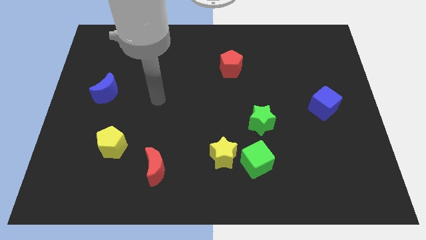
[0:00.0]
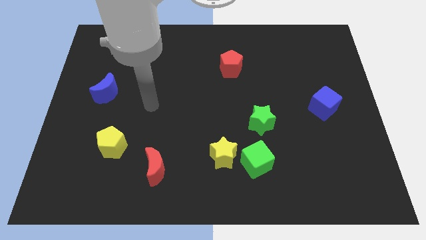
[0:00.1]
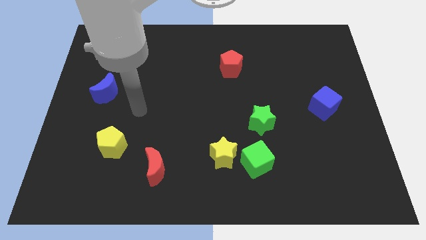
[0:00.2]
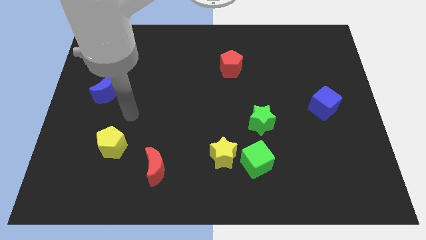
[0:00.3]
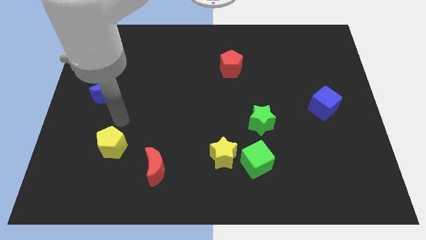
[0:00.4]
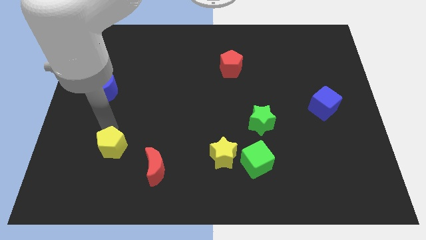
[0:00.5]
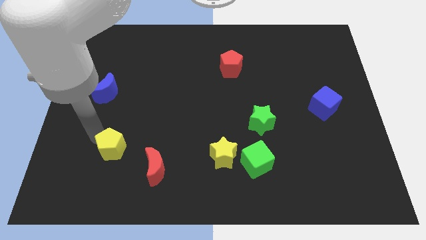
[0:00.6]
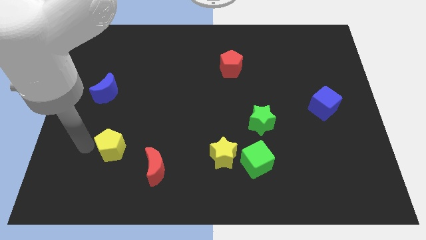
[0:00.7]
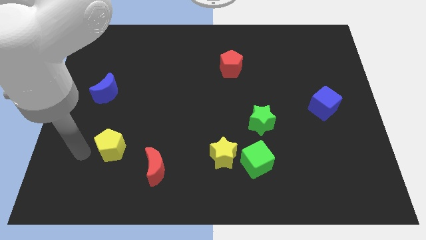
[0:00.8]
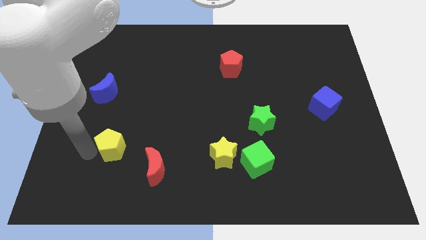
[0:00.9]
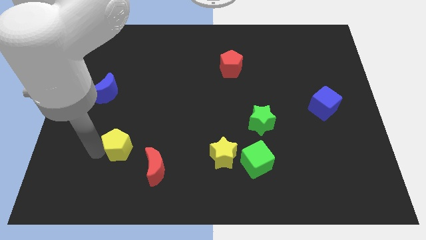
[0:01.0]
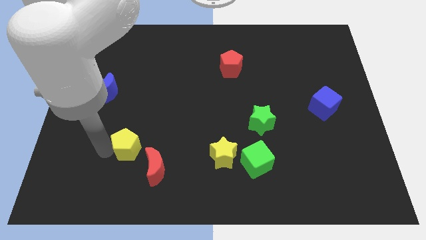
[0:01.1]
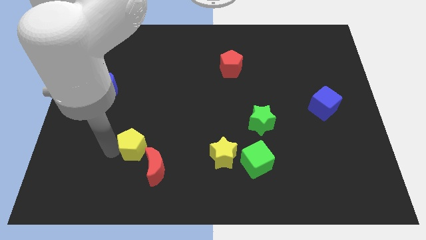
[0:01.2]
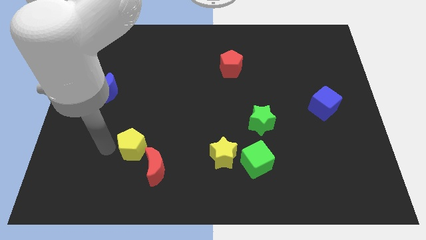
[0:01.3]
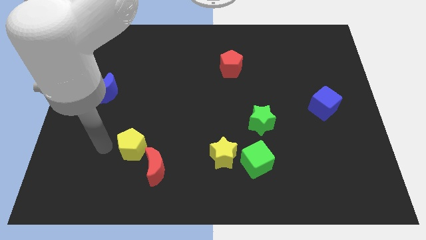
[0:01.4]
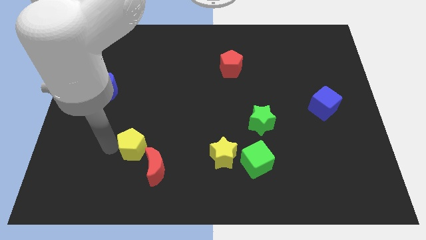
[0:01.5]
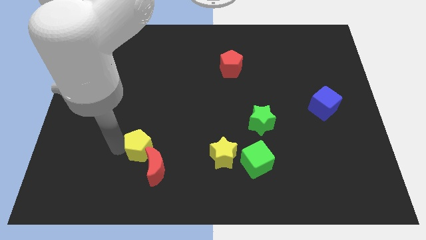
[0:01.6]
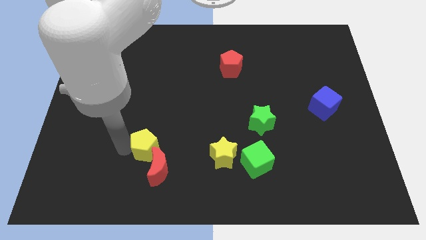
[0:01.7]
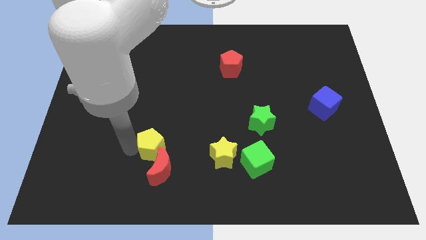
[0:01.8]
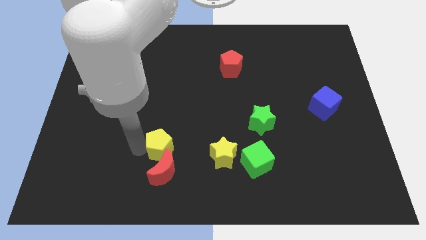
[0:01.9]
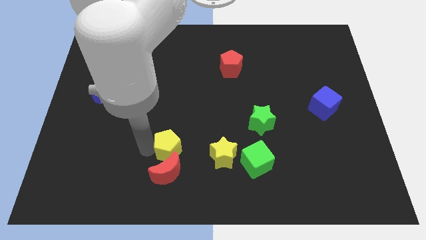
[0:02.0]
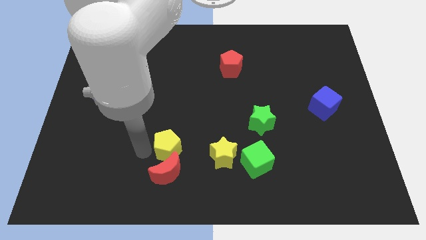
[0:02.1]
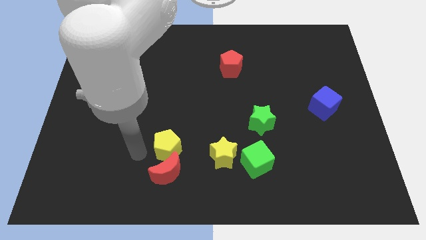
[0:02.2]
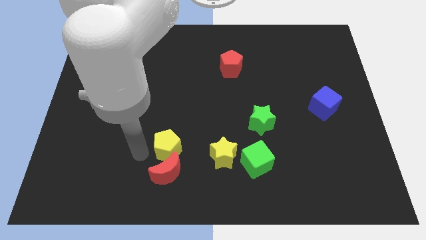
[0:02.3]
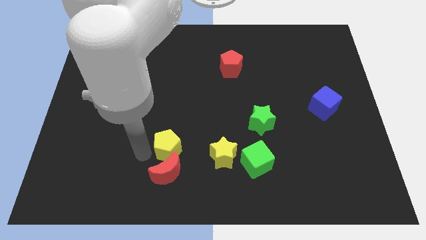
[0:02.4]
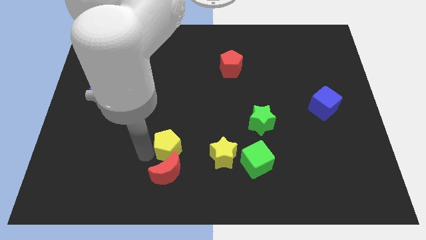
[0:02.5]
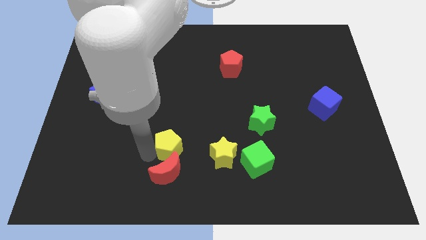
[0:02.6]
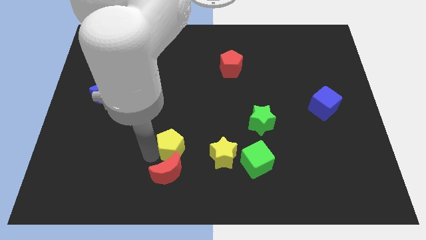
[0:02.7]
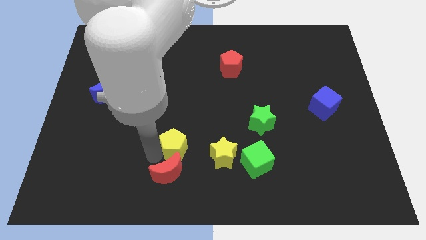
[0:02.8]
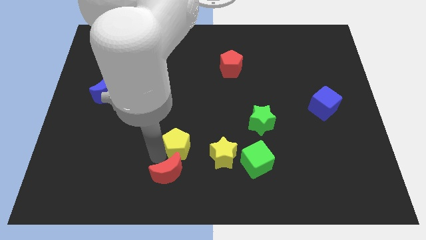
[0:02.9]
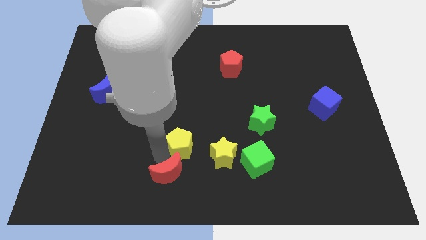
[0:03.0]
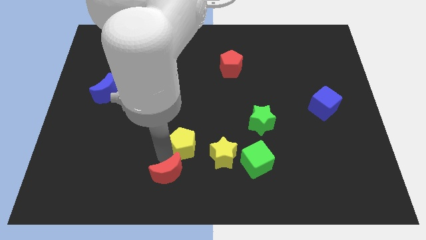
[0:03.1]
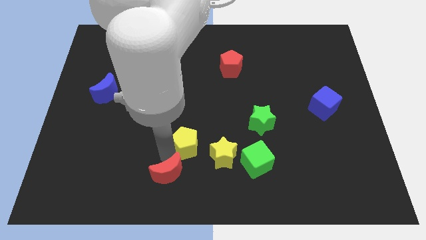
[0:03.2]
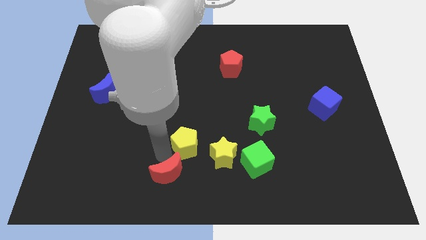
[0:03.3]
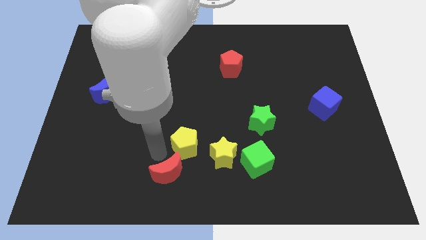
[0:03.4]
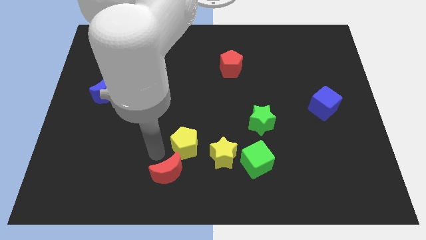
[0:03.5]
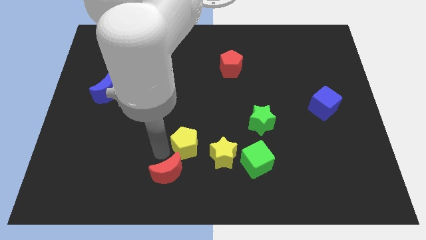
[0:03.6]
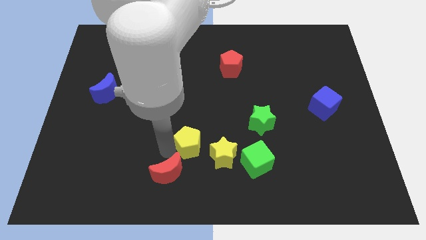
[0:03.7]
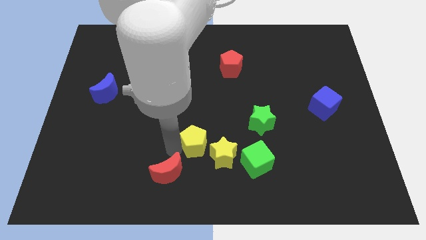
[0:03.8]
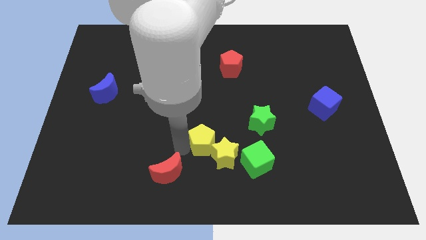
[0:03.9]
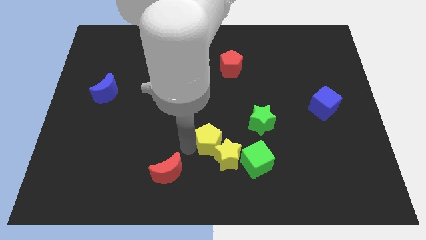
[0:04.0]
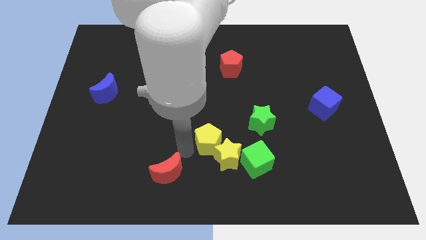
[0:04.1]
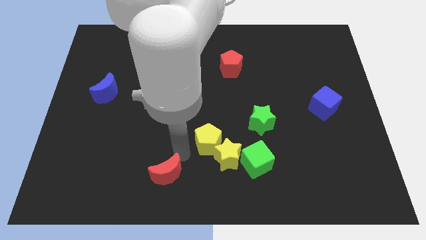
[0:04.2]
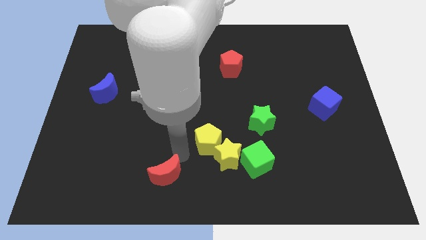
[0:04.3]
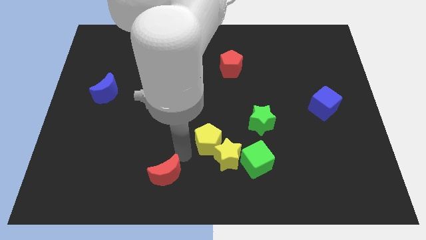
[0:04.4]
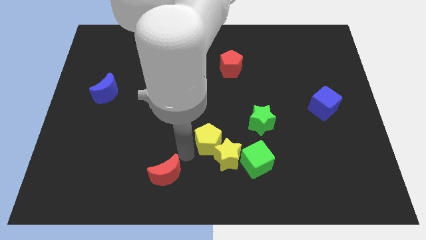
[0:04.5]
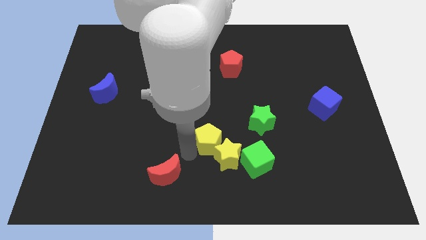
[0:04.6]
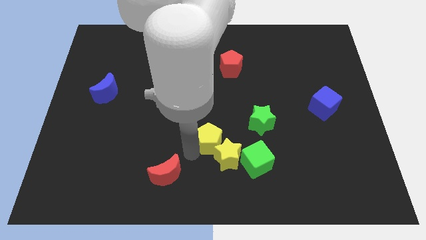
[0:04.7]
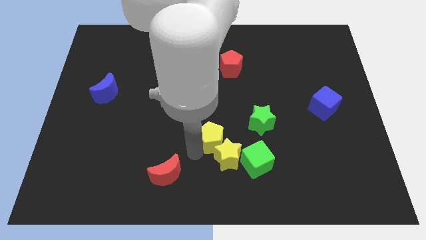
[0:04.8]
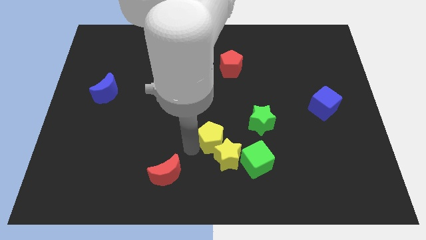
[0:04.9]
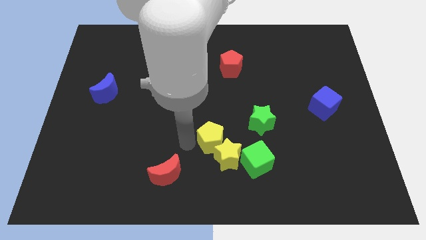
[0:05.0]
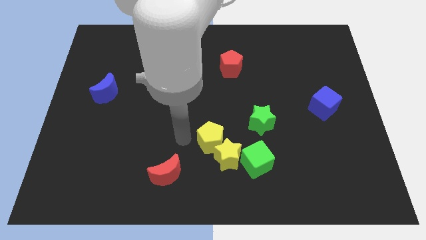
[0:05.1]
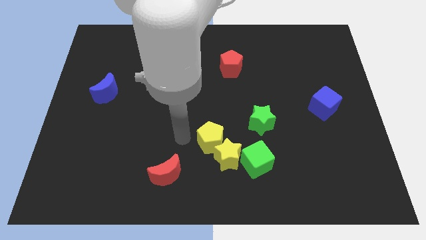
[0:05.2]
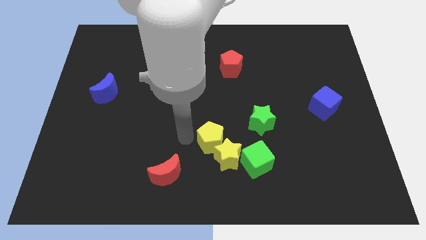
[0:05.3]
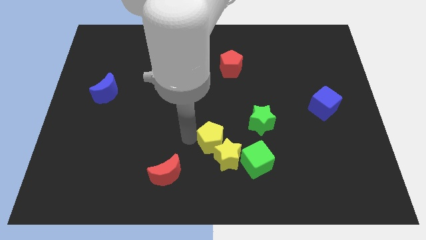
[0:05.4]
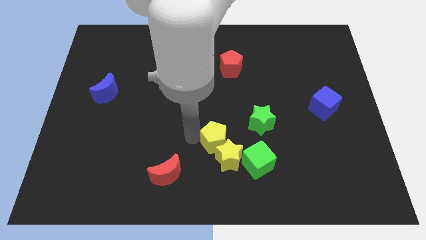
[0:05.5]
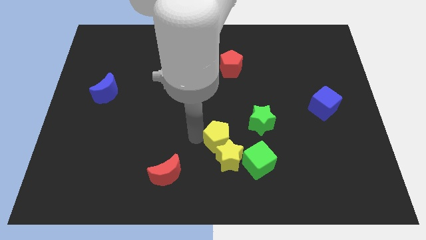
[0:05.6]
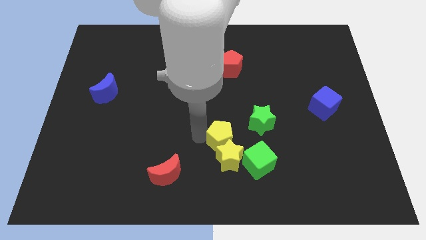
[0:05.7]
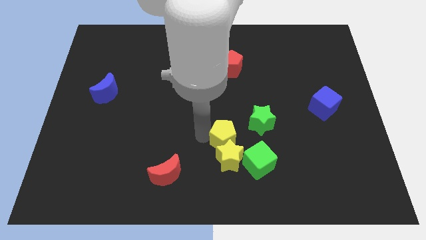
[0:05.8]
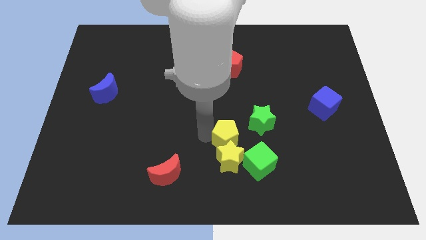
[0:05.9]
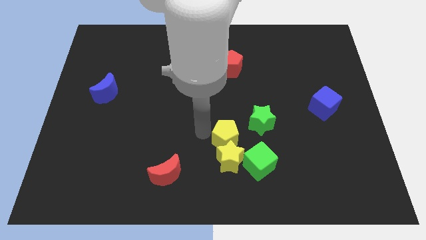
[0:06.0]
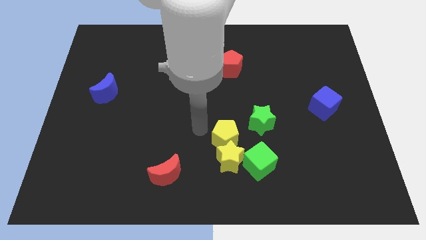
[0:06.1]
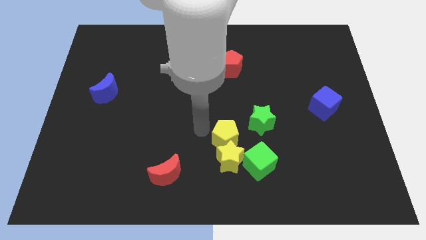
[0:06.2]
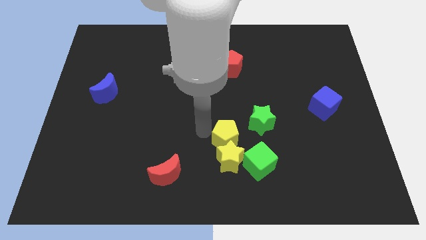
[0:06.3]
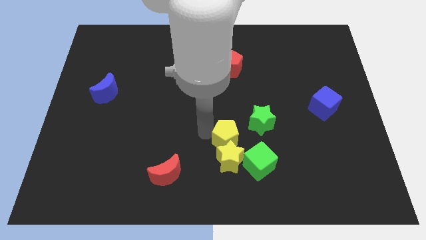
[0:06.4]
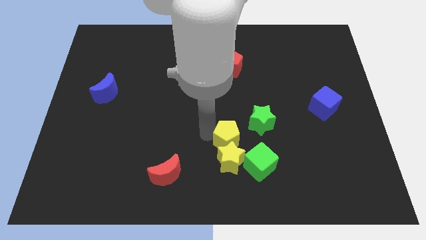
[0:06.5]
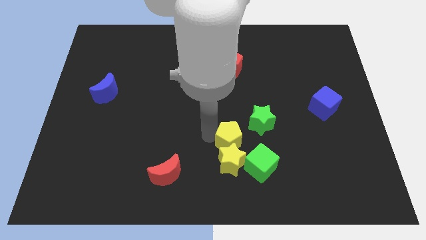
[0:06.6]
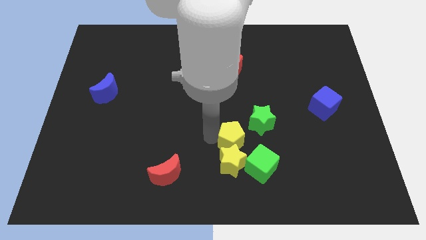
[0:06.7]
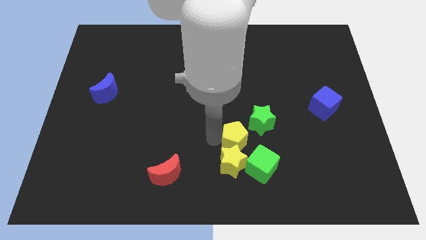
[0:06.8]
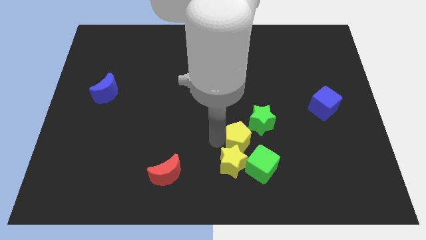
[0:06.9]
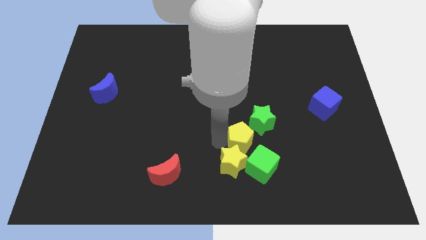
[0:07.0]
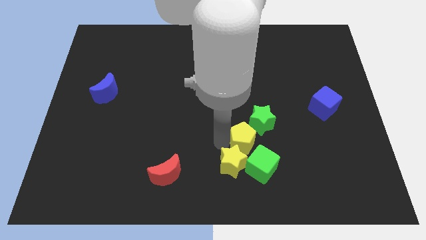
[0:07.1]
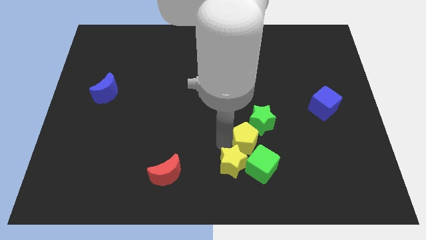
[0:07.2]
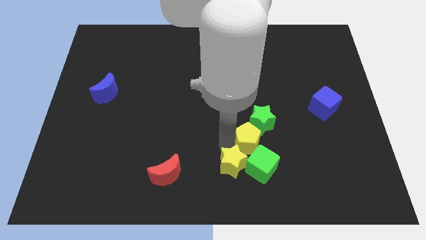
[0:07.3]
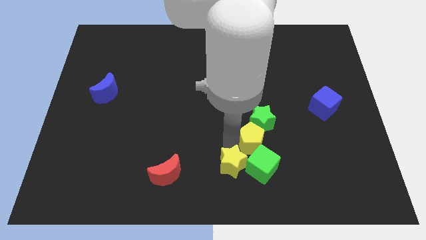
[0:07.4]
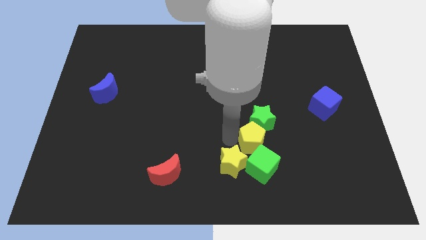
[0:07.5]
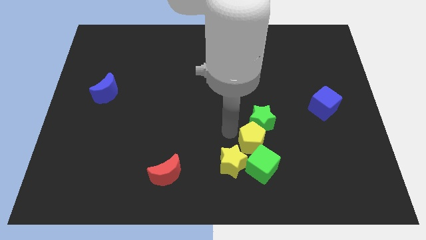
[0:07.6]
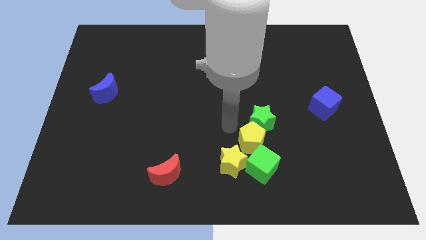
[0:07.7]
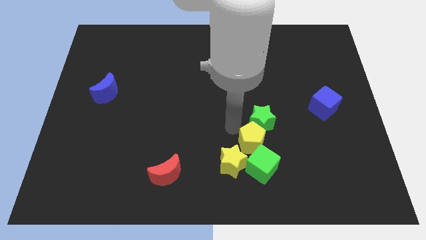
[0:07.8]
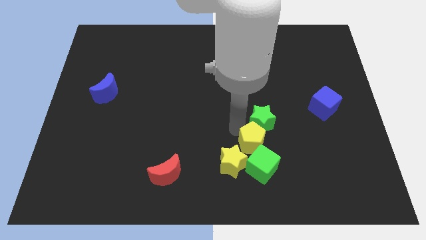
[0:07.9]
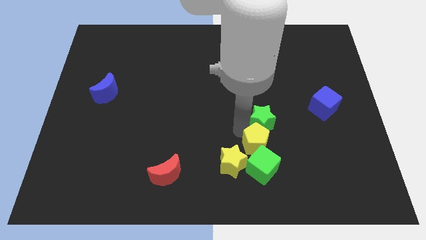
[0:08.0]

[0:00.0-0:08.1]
push the yellow pentagon right of the yellow star

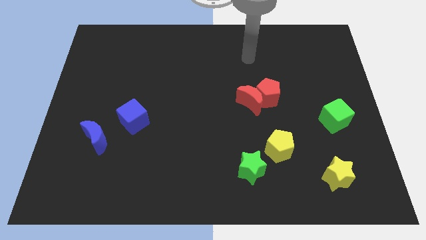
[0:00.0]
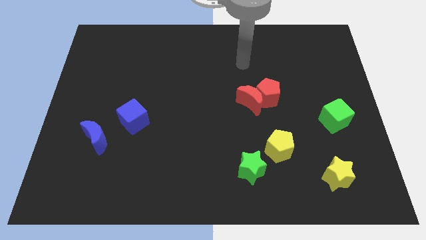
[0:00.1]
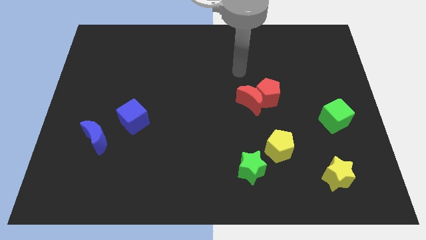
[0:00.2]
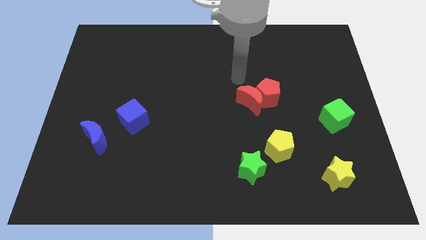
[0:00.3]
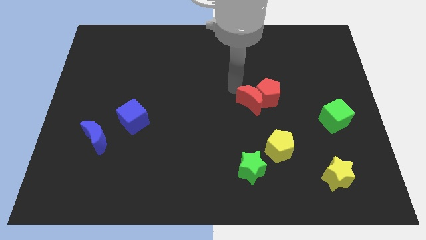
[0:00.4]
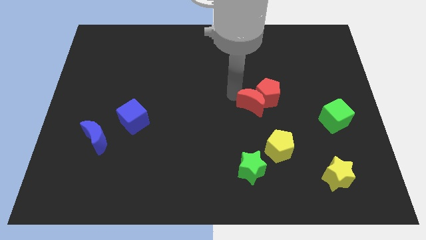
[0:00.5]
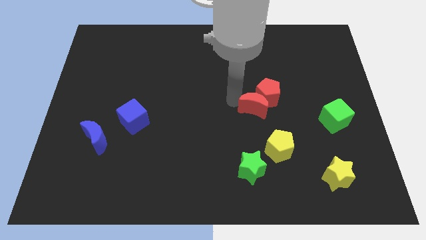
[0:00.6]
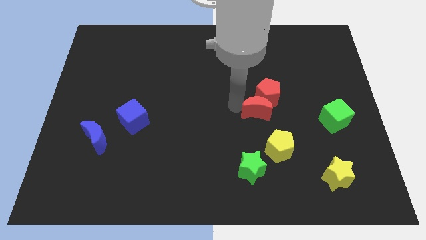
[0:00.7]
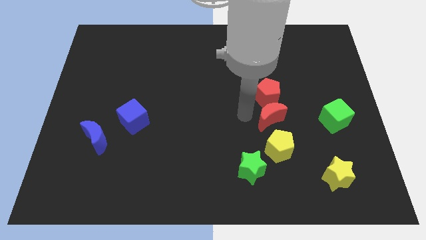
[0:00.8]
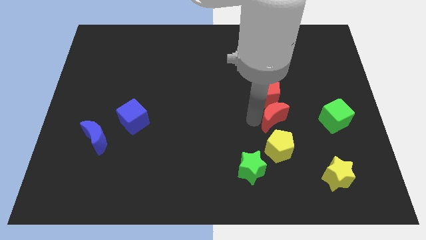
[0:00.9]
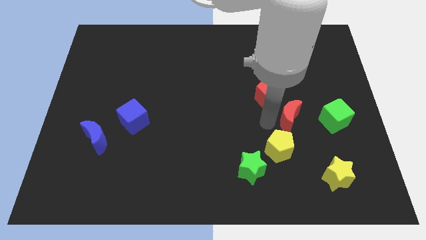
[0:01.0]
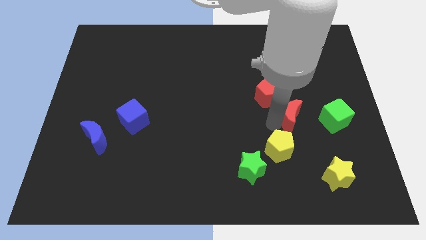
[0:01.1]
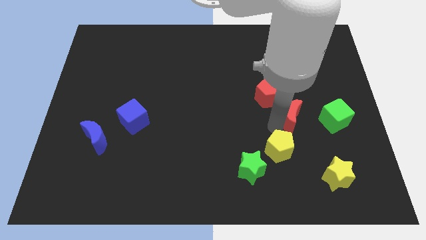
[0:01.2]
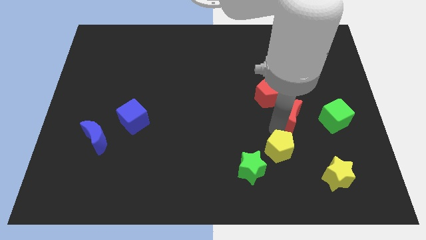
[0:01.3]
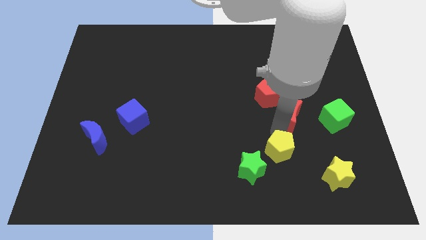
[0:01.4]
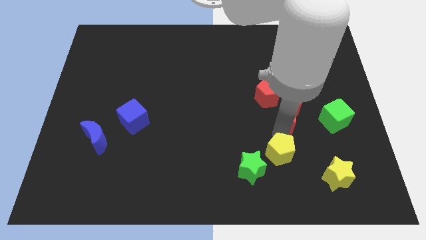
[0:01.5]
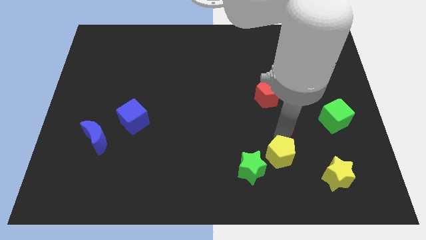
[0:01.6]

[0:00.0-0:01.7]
slide the yellow pentagon to the left of the yellow star
